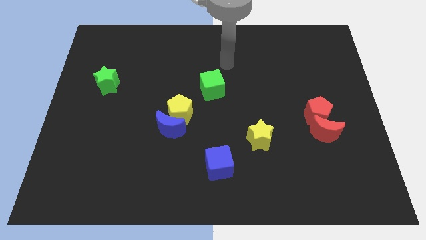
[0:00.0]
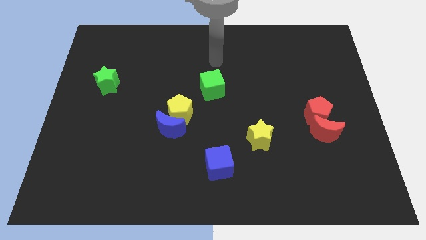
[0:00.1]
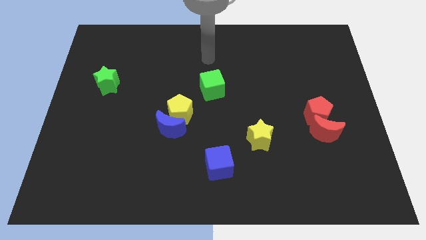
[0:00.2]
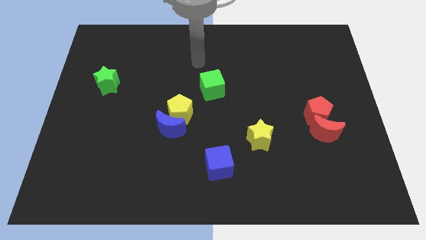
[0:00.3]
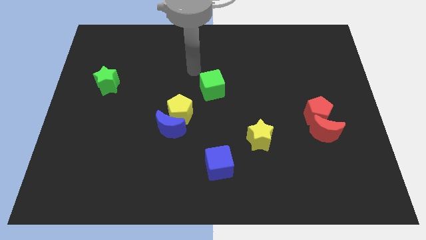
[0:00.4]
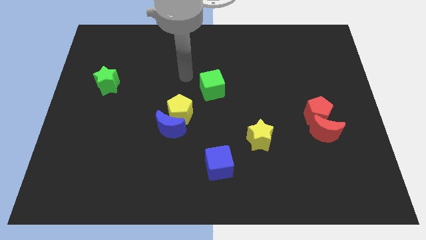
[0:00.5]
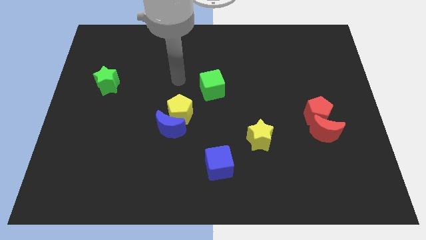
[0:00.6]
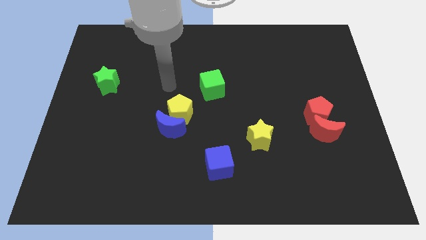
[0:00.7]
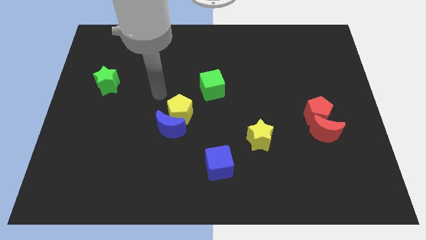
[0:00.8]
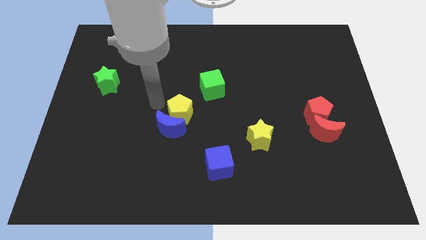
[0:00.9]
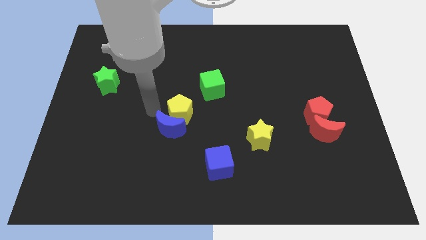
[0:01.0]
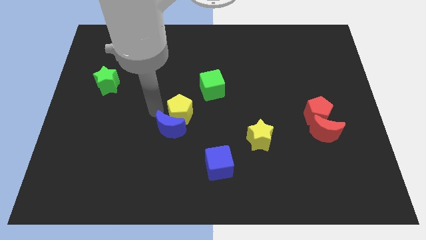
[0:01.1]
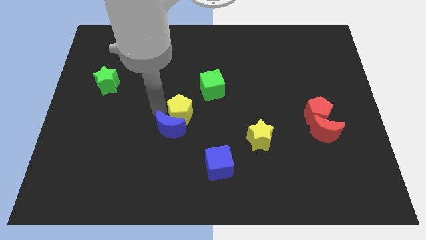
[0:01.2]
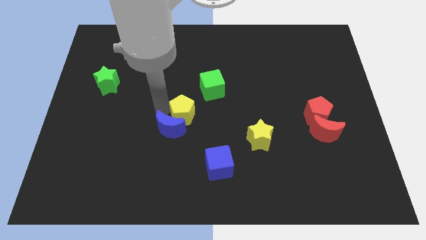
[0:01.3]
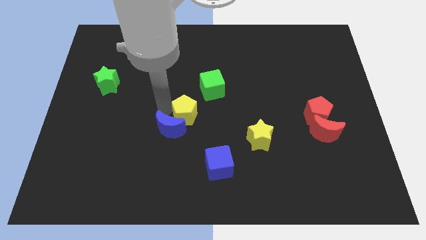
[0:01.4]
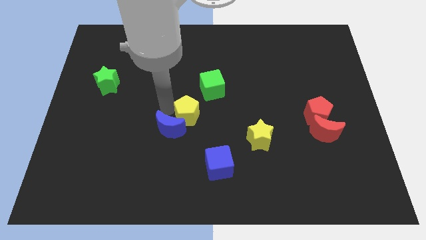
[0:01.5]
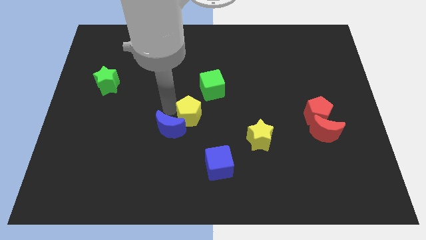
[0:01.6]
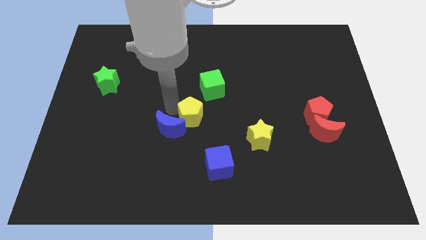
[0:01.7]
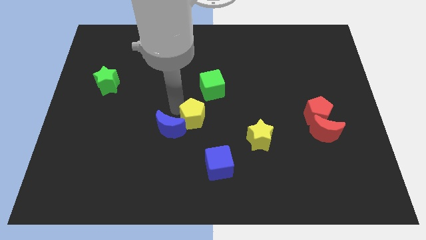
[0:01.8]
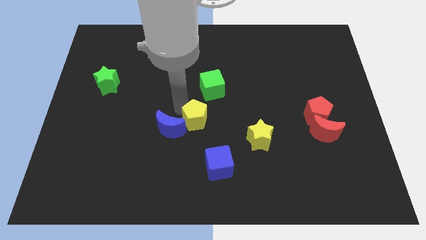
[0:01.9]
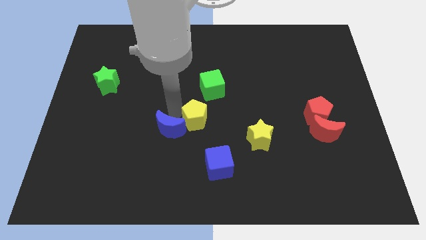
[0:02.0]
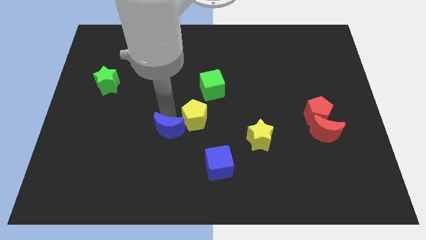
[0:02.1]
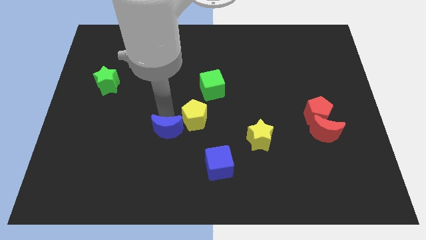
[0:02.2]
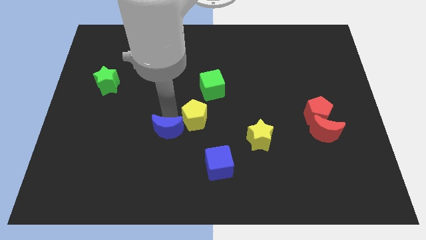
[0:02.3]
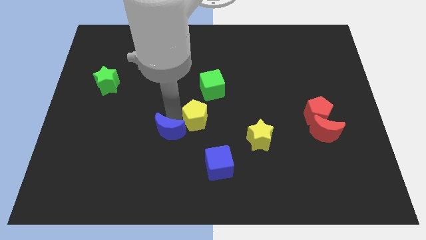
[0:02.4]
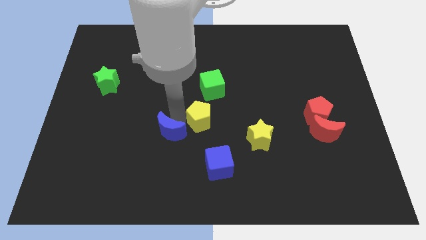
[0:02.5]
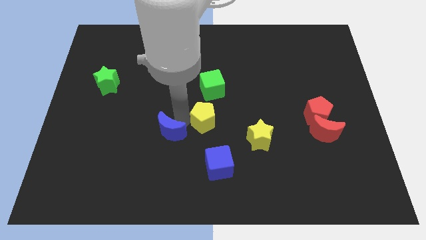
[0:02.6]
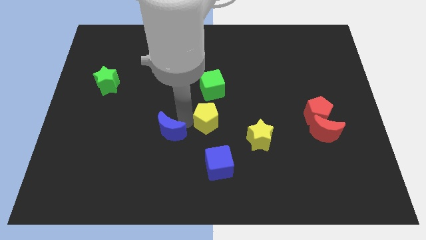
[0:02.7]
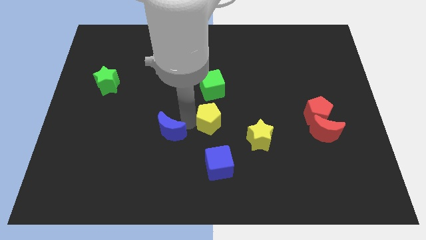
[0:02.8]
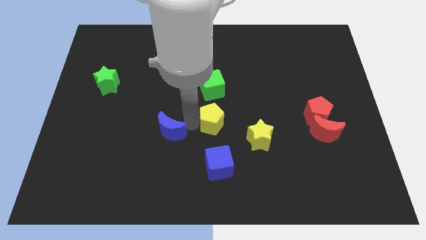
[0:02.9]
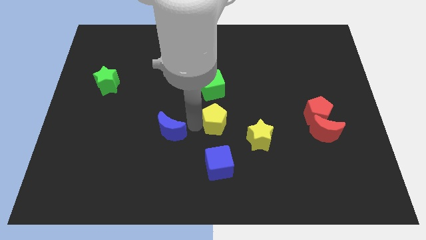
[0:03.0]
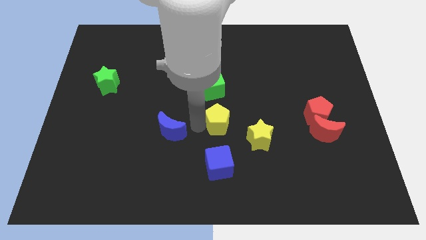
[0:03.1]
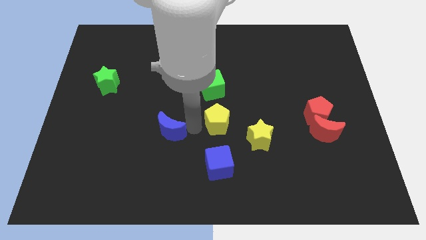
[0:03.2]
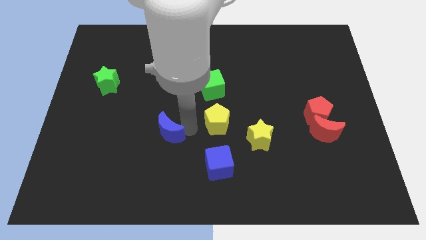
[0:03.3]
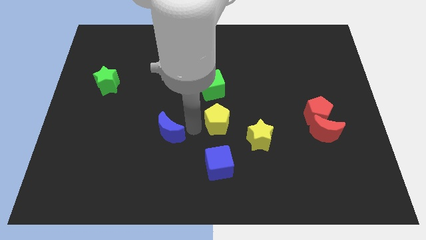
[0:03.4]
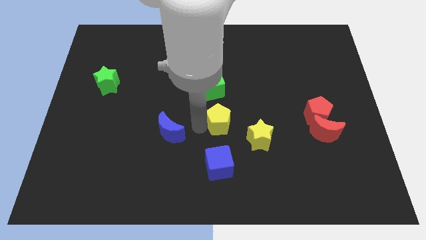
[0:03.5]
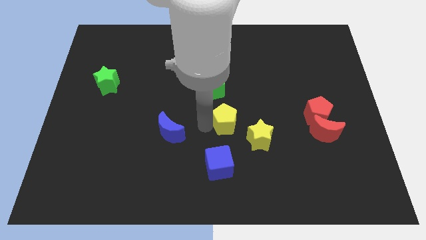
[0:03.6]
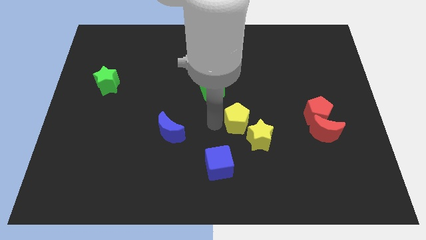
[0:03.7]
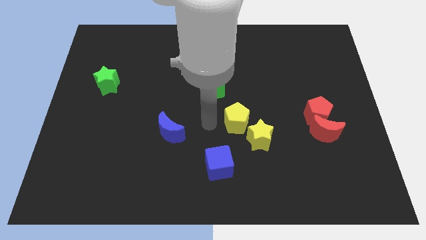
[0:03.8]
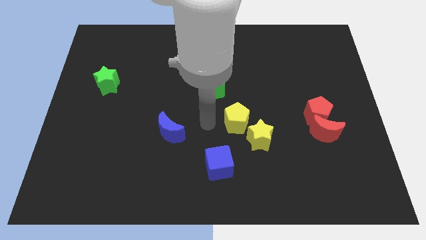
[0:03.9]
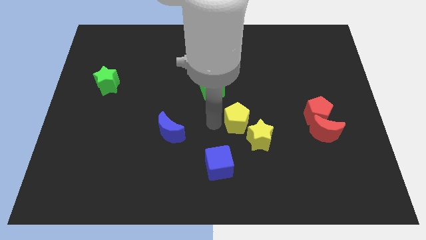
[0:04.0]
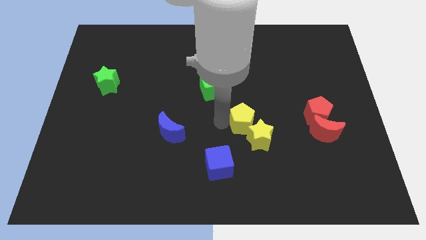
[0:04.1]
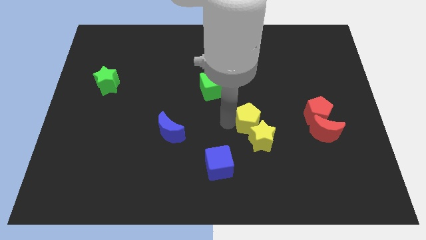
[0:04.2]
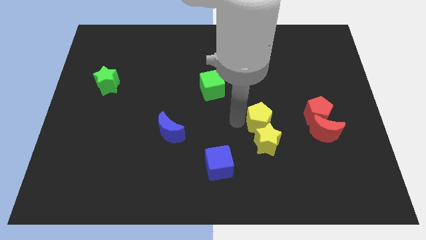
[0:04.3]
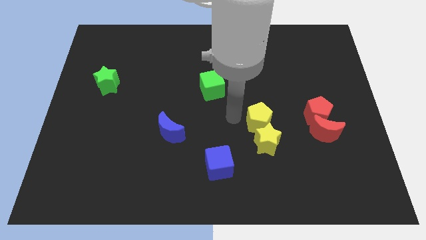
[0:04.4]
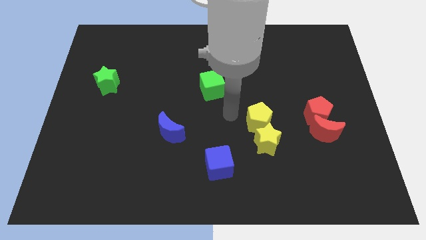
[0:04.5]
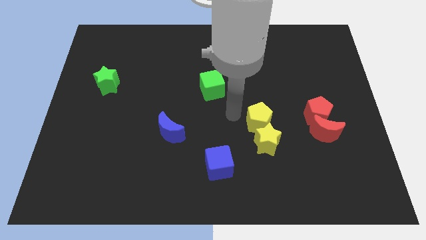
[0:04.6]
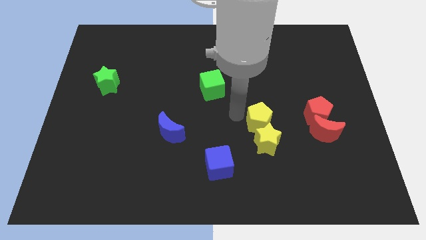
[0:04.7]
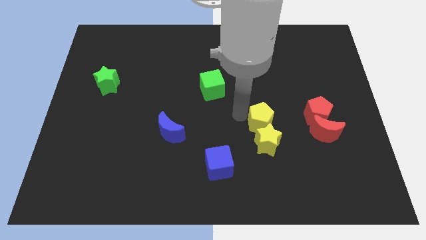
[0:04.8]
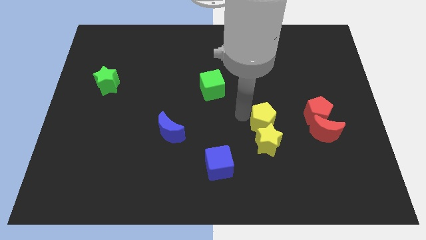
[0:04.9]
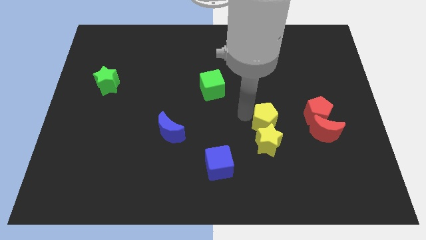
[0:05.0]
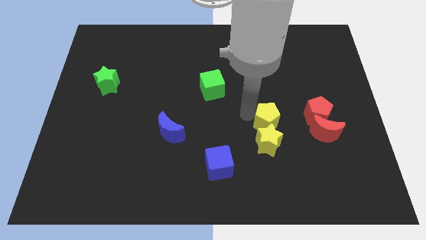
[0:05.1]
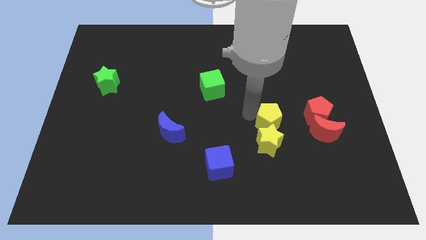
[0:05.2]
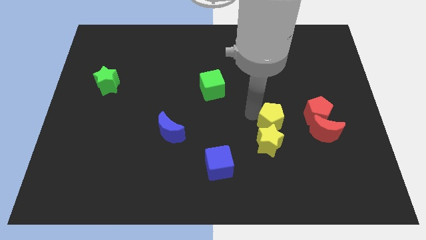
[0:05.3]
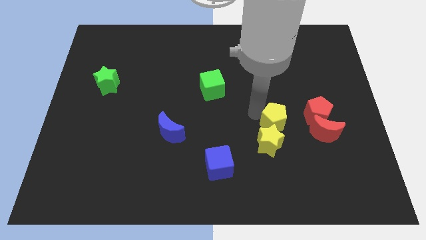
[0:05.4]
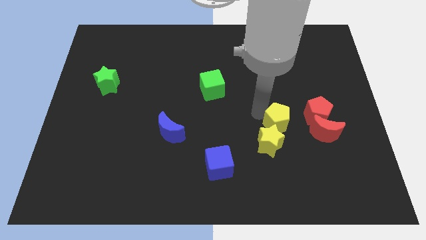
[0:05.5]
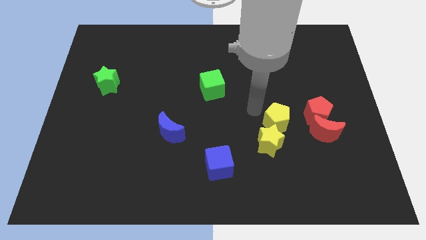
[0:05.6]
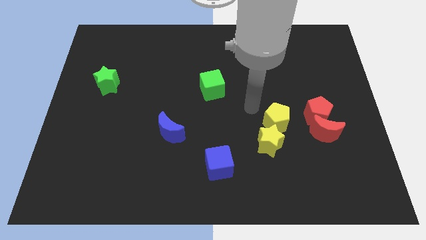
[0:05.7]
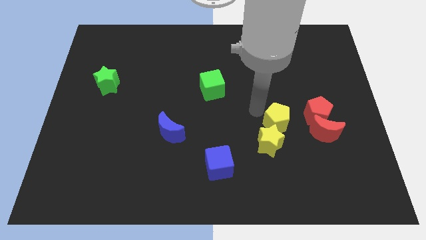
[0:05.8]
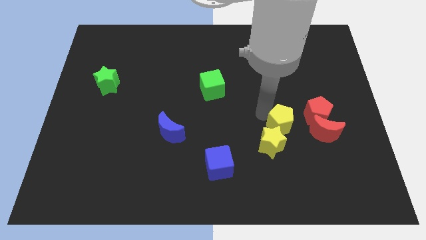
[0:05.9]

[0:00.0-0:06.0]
push the yellow pentagon to the bottom left side of the red pentagon

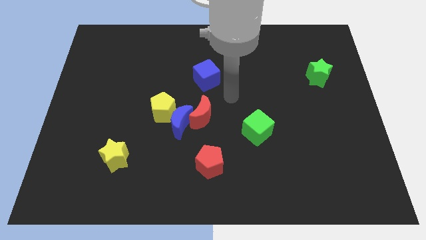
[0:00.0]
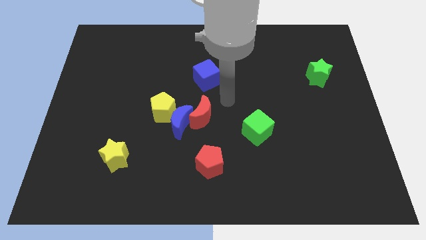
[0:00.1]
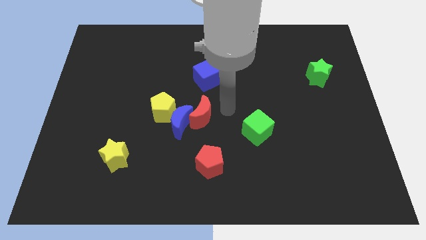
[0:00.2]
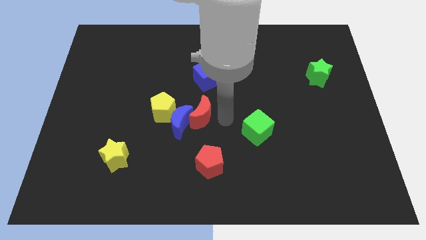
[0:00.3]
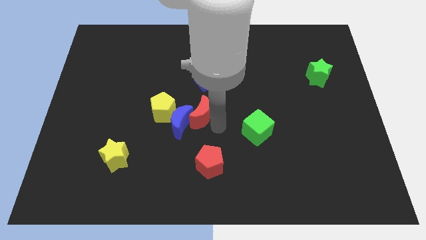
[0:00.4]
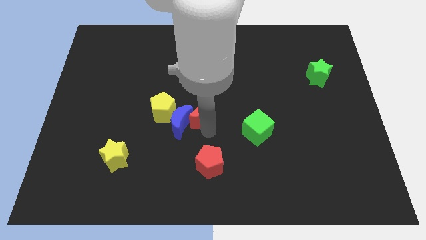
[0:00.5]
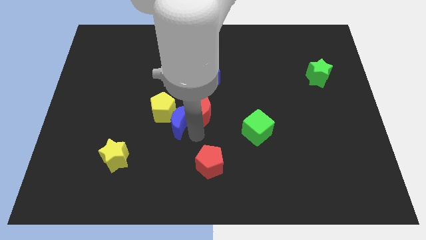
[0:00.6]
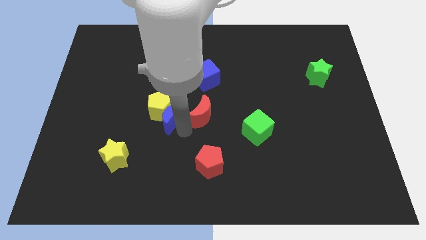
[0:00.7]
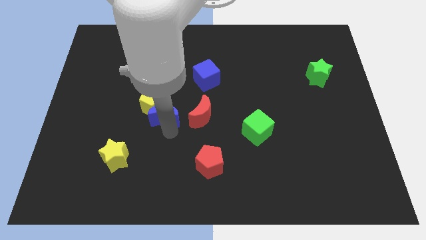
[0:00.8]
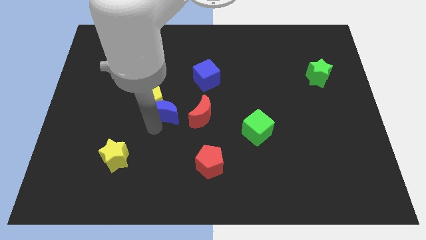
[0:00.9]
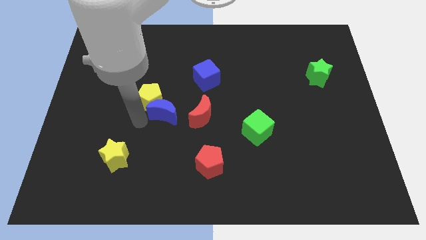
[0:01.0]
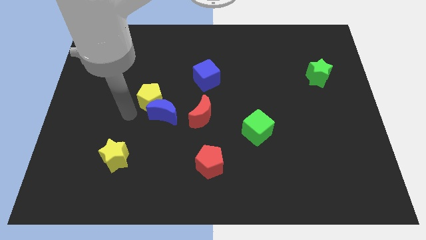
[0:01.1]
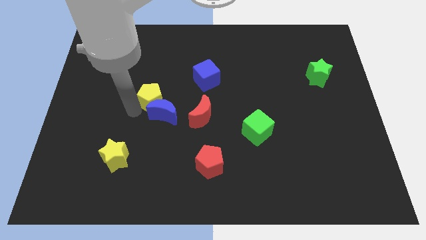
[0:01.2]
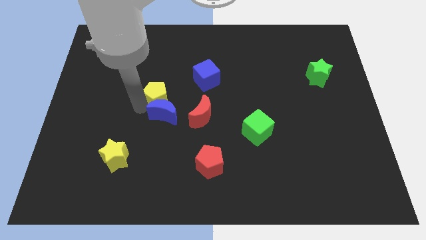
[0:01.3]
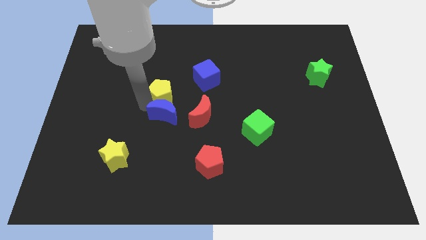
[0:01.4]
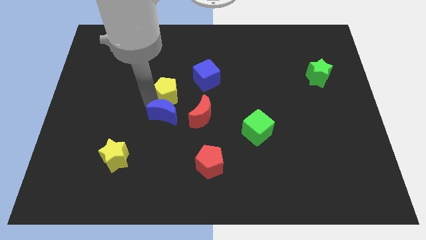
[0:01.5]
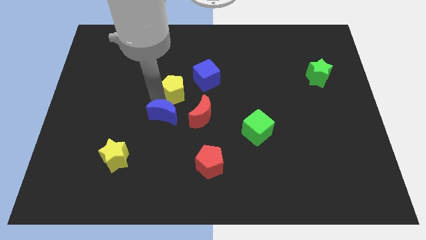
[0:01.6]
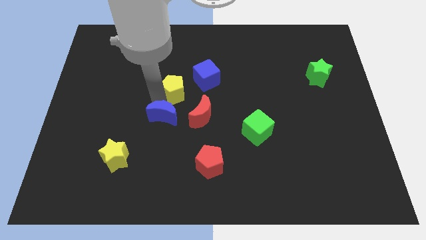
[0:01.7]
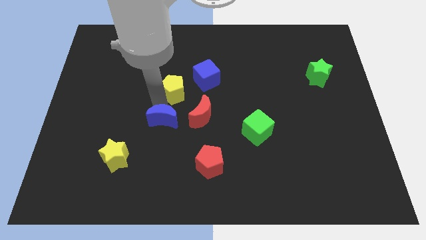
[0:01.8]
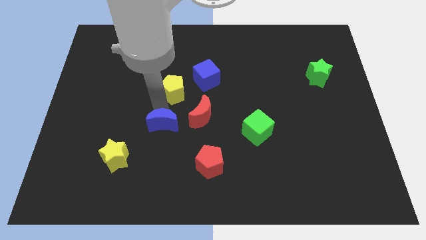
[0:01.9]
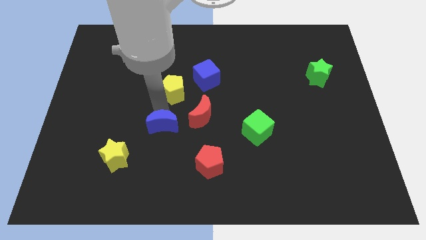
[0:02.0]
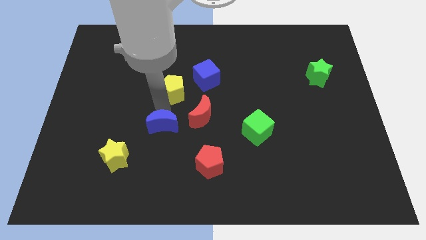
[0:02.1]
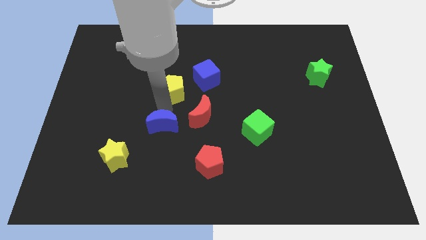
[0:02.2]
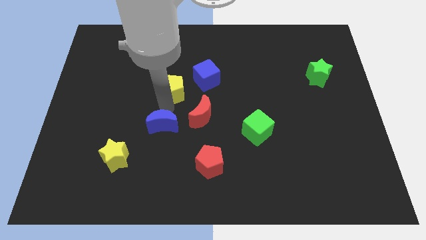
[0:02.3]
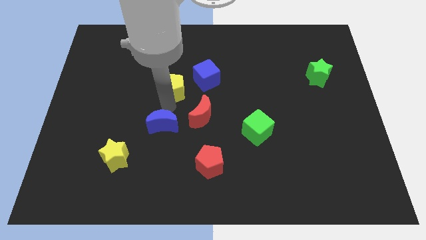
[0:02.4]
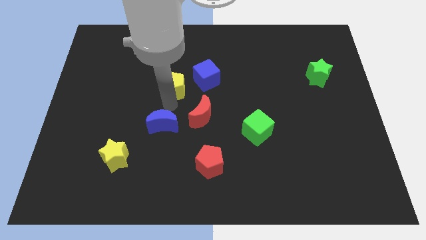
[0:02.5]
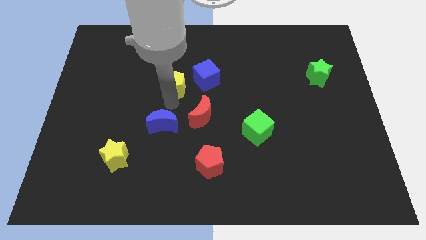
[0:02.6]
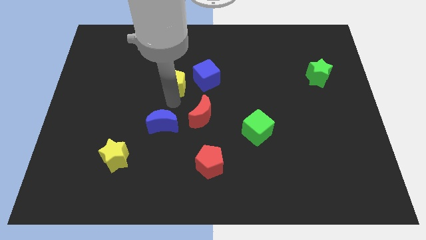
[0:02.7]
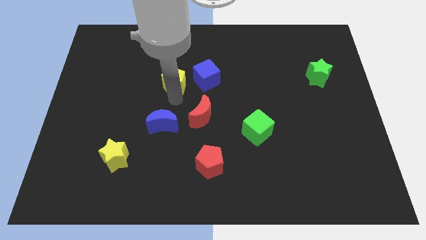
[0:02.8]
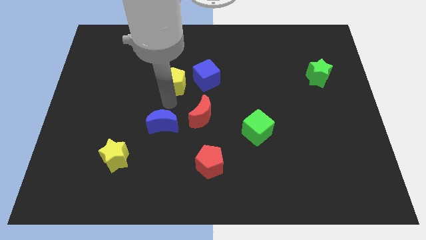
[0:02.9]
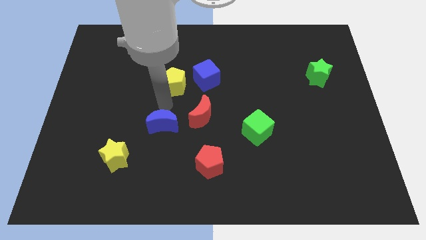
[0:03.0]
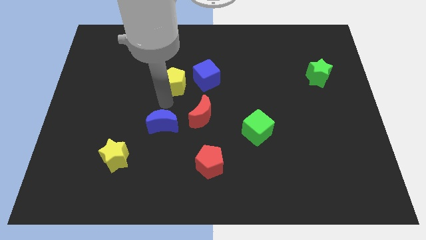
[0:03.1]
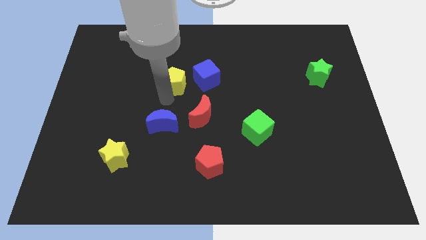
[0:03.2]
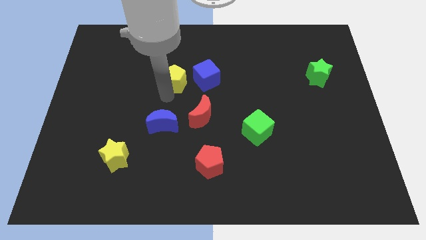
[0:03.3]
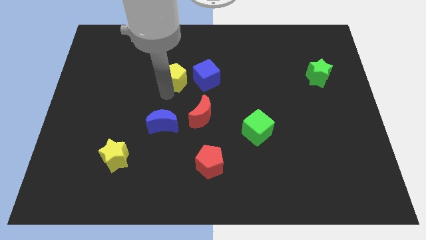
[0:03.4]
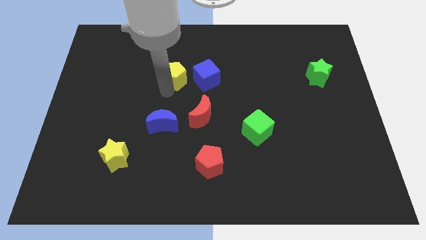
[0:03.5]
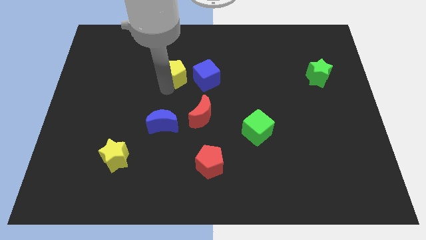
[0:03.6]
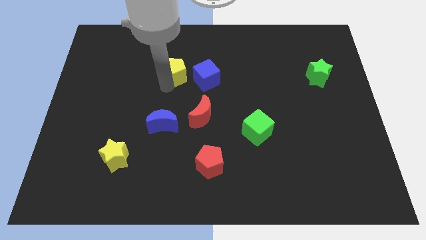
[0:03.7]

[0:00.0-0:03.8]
slide the yellow pentagon to the top left side of the blue cube
